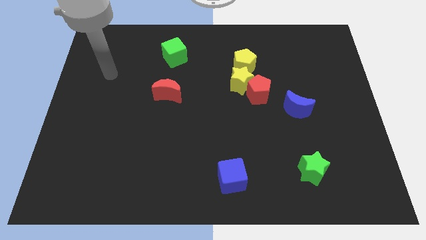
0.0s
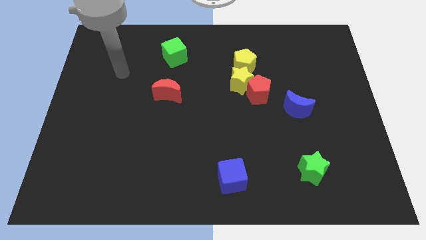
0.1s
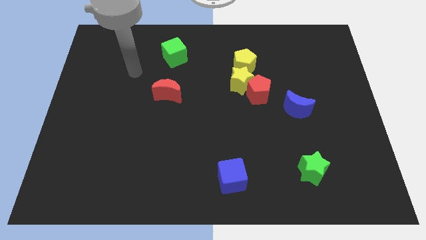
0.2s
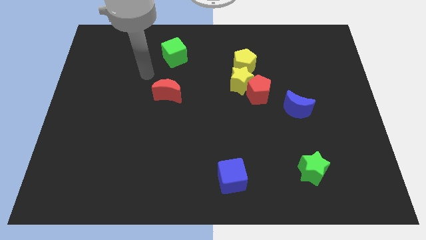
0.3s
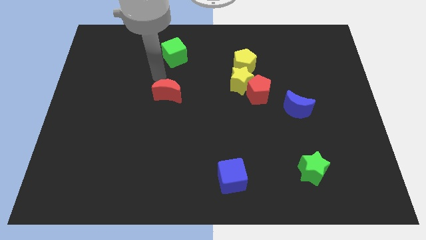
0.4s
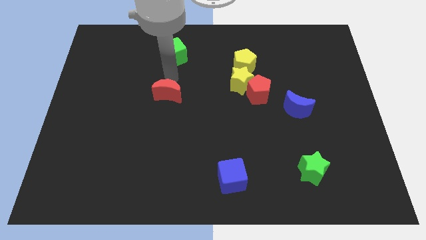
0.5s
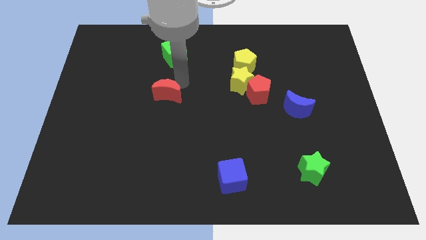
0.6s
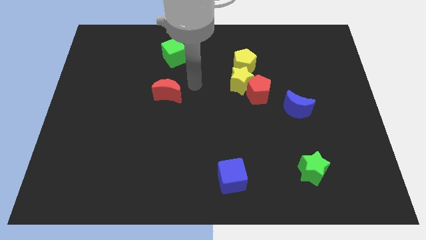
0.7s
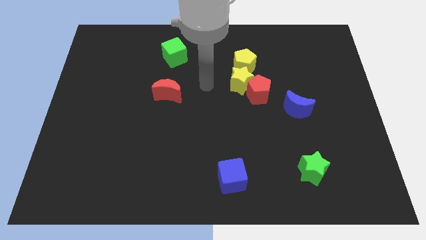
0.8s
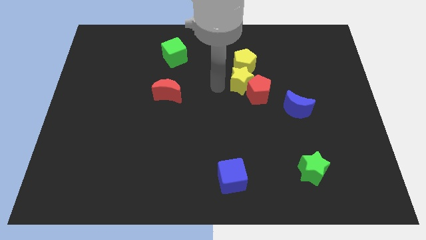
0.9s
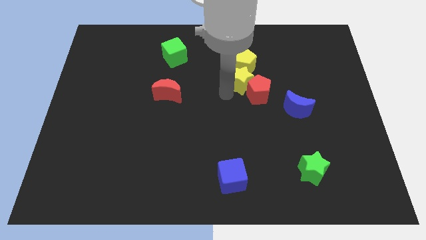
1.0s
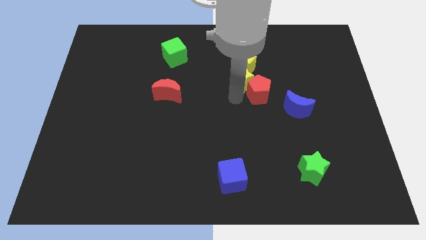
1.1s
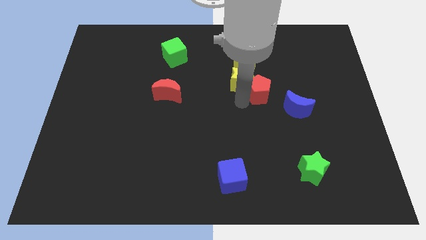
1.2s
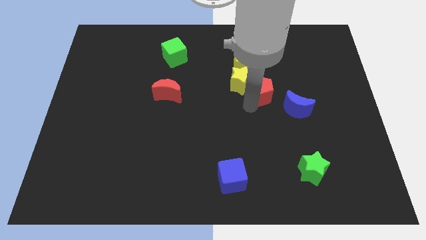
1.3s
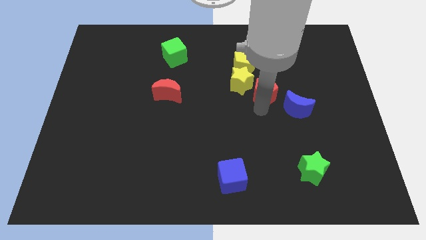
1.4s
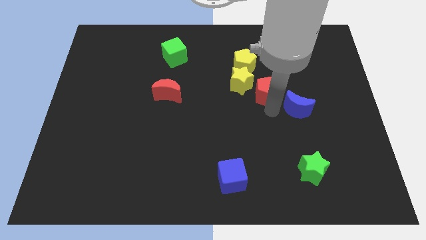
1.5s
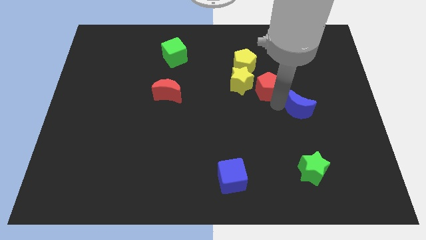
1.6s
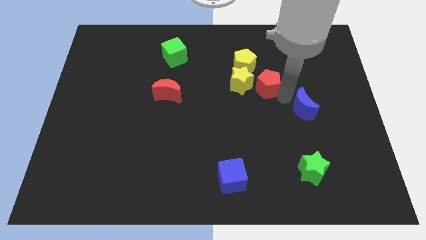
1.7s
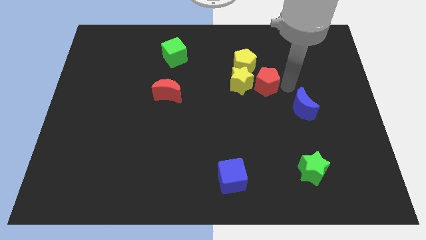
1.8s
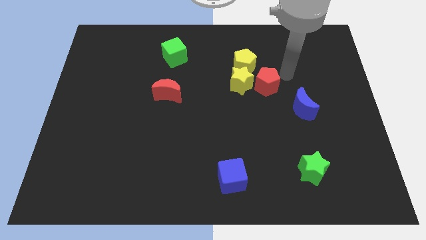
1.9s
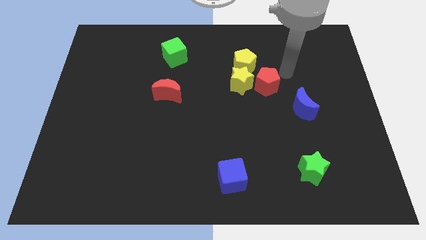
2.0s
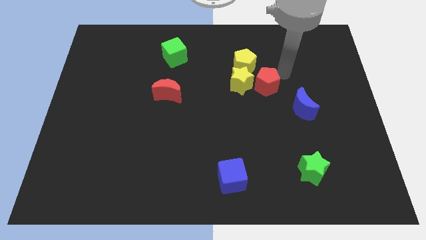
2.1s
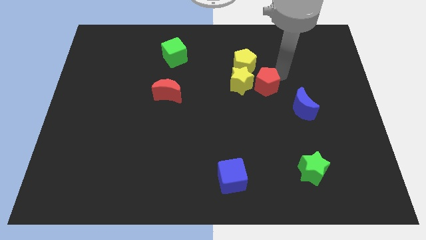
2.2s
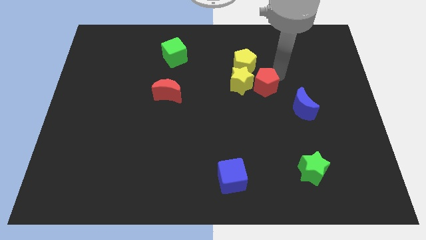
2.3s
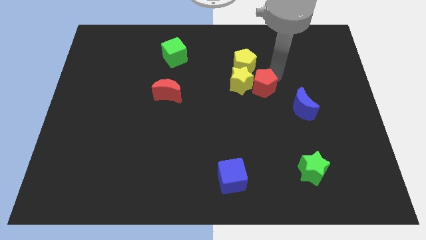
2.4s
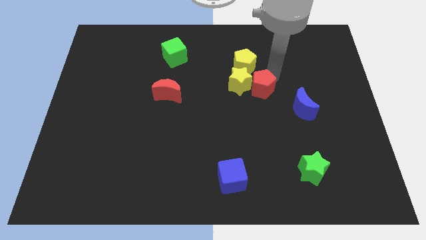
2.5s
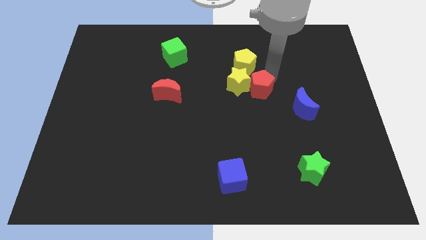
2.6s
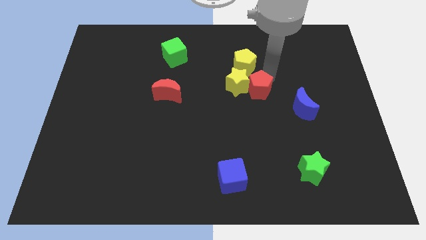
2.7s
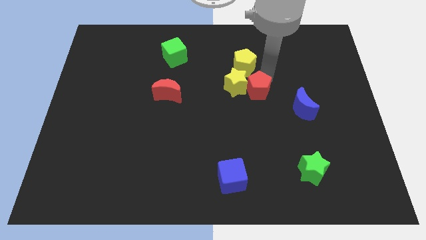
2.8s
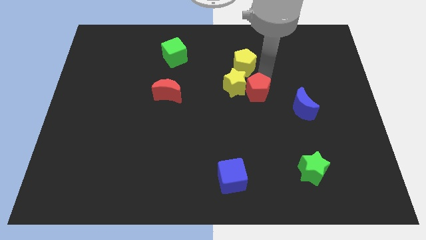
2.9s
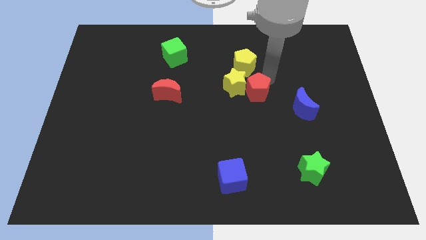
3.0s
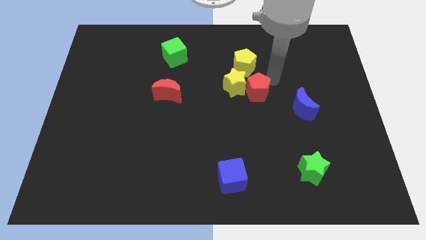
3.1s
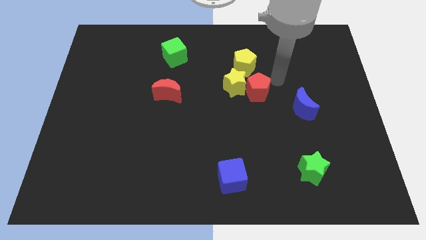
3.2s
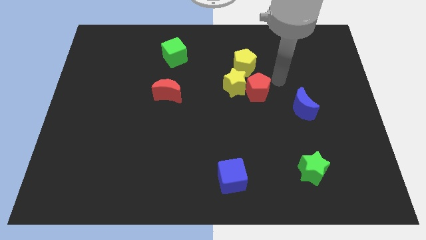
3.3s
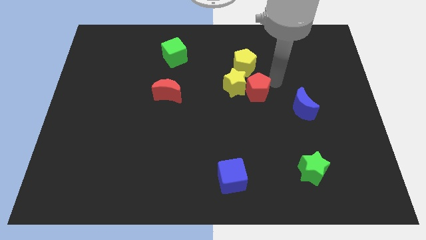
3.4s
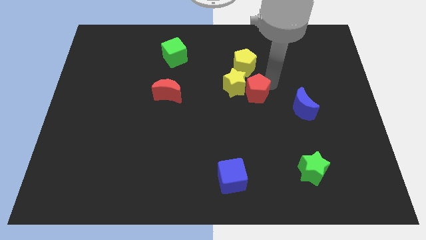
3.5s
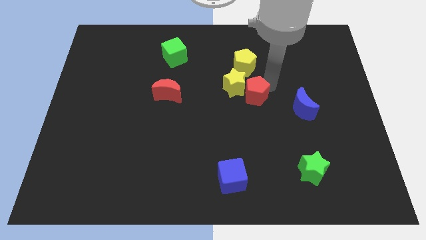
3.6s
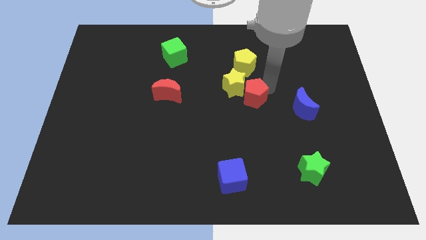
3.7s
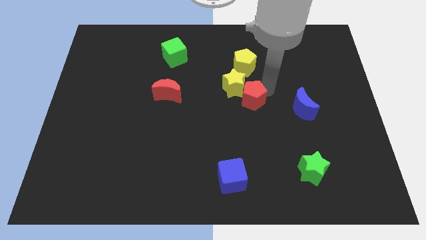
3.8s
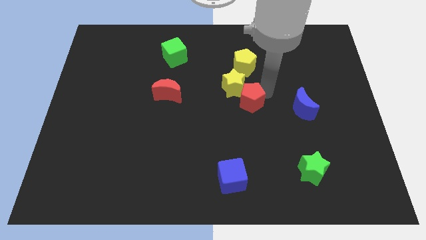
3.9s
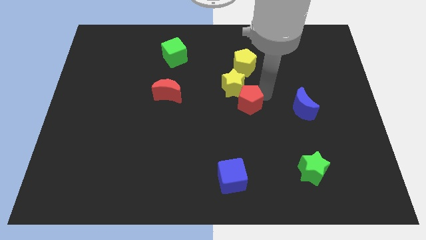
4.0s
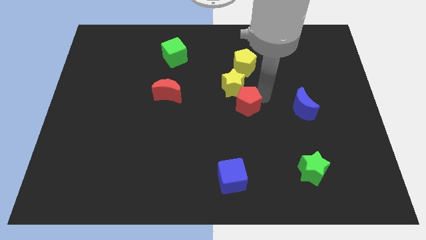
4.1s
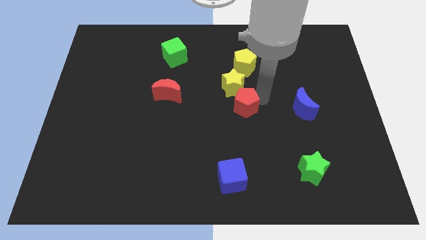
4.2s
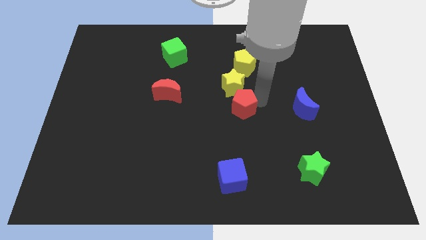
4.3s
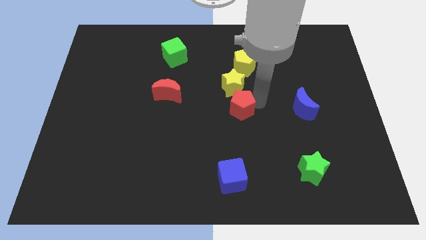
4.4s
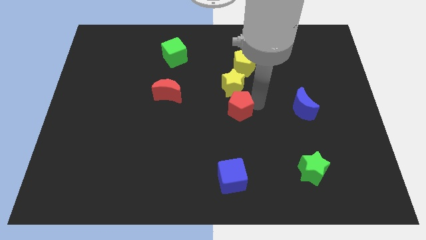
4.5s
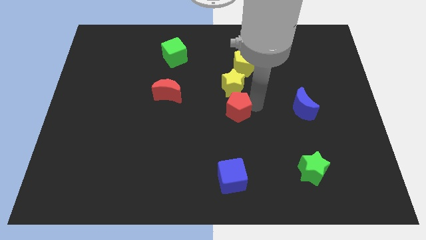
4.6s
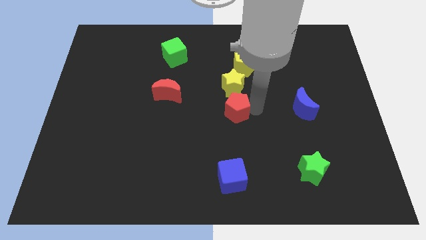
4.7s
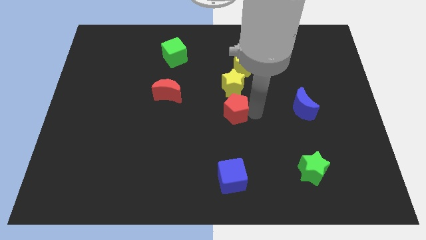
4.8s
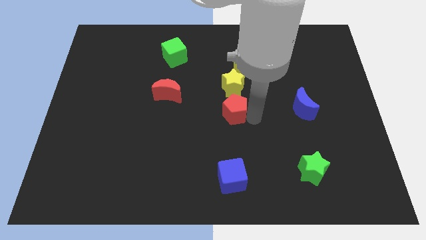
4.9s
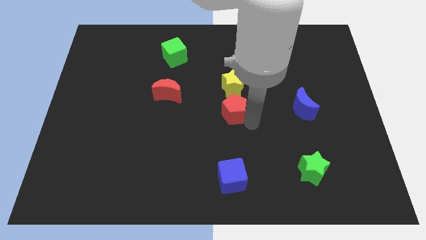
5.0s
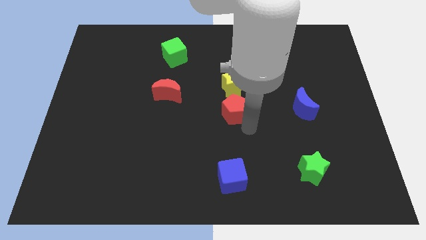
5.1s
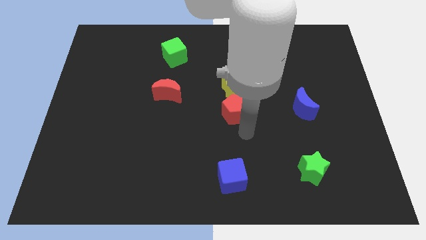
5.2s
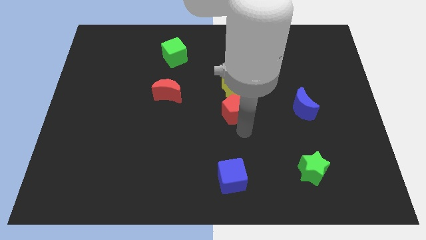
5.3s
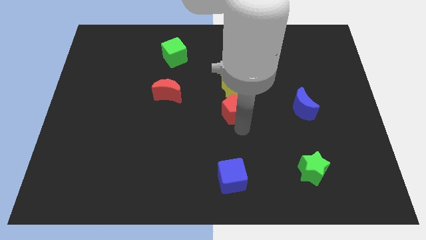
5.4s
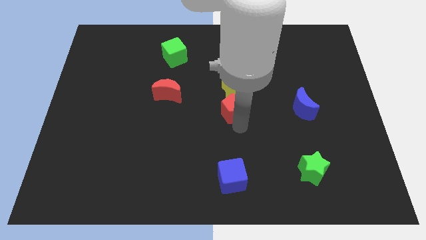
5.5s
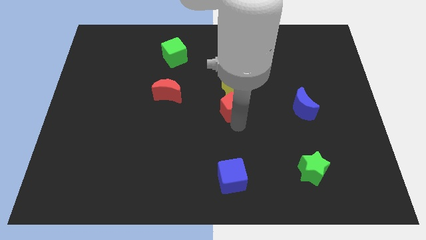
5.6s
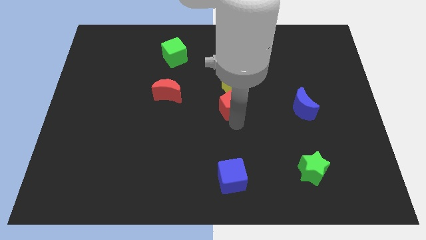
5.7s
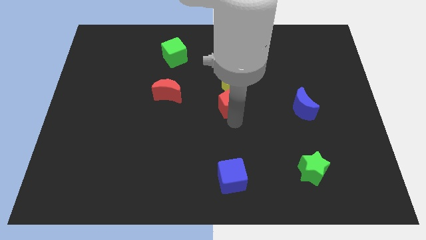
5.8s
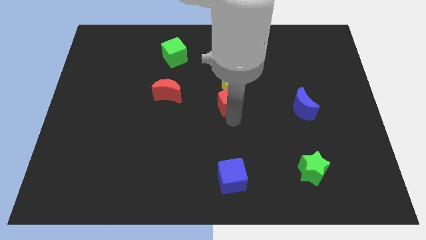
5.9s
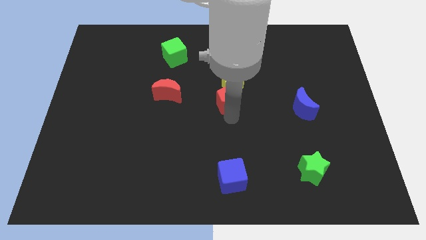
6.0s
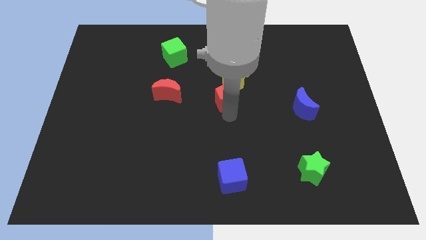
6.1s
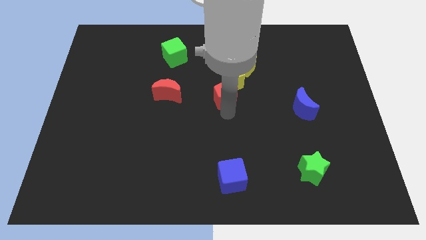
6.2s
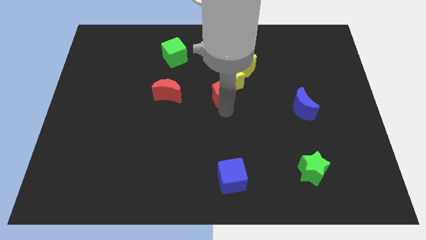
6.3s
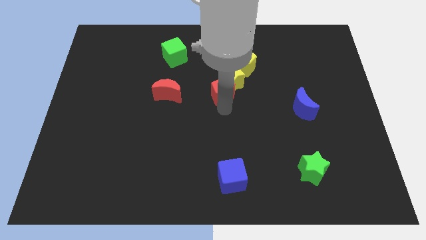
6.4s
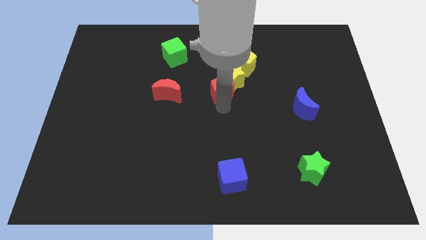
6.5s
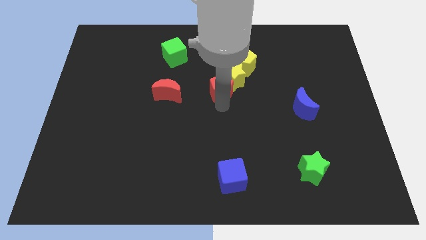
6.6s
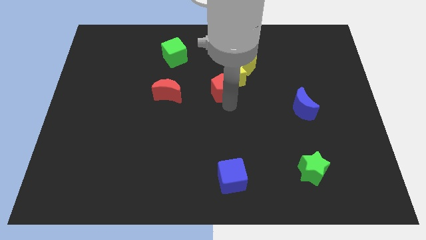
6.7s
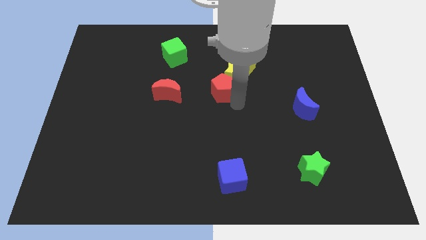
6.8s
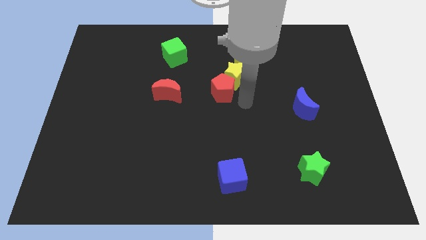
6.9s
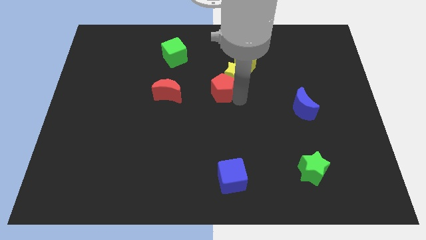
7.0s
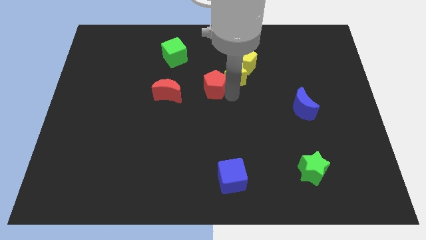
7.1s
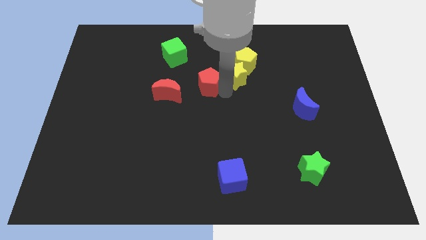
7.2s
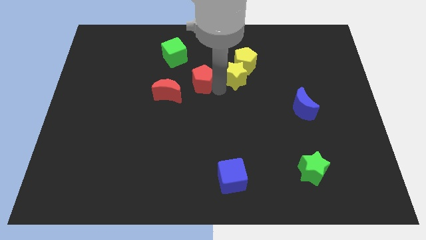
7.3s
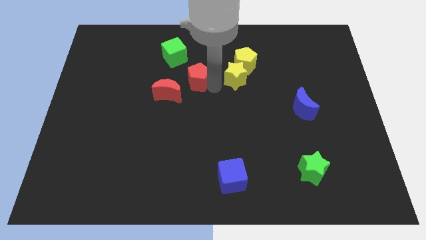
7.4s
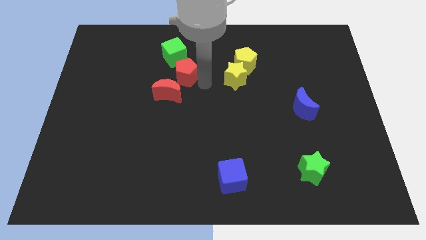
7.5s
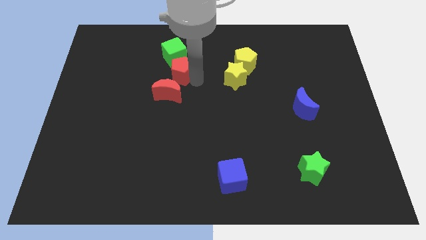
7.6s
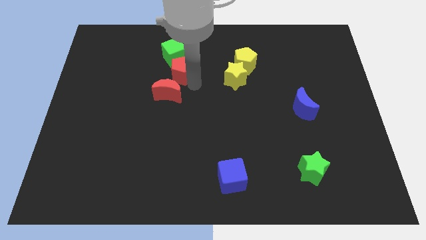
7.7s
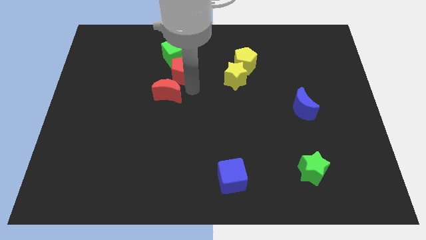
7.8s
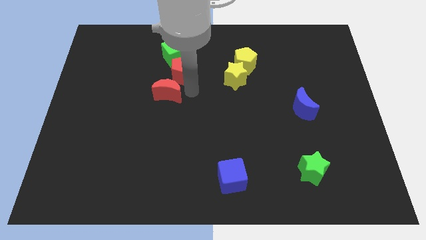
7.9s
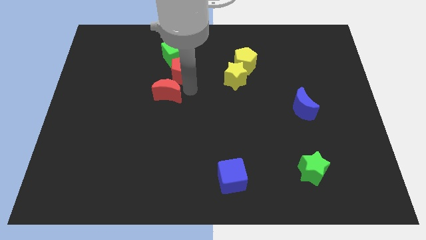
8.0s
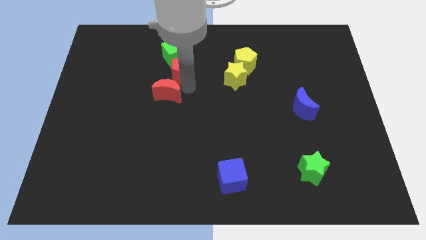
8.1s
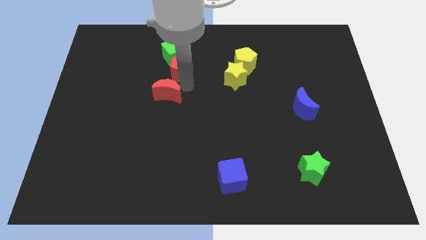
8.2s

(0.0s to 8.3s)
put the red pentagon towards the green cube
